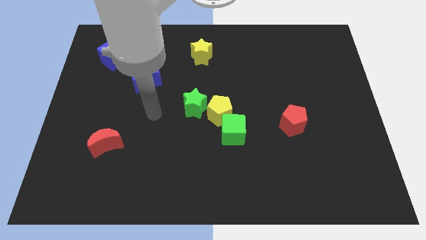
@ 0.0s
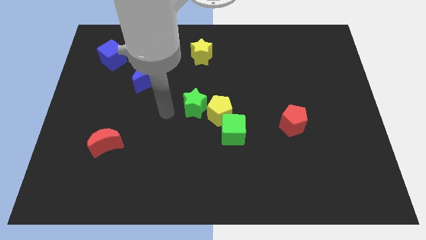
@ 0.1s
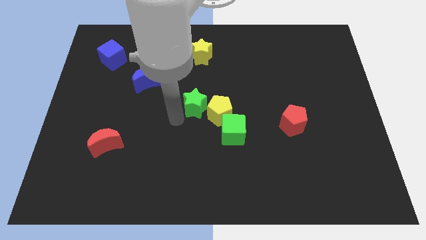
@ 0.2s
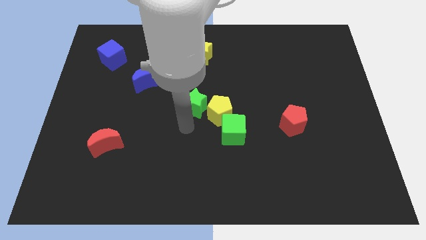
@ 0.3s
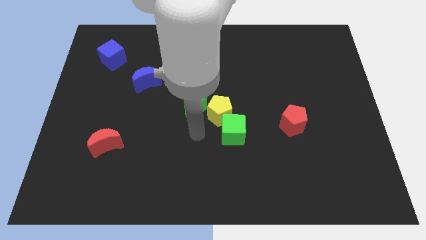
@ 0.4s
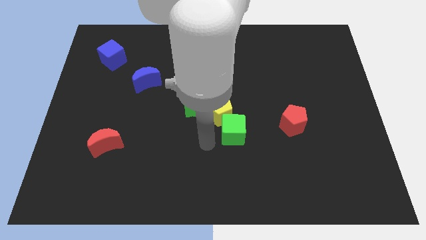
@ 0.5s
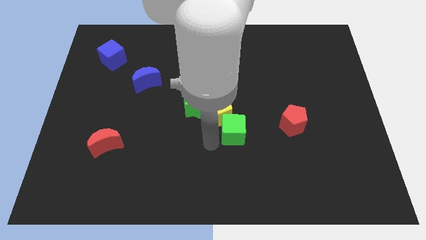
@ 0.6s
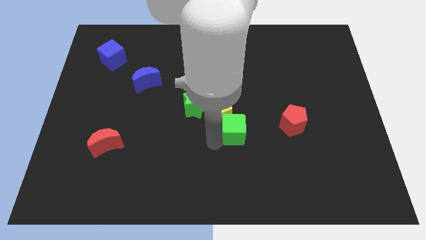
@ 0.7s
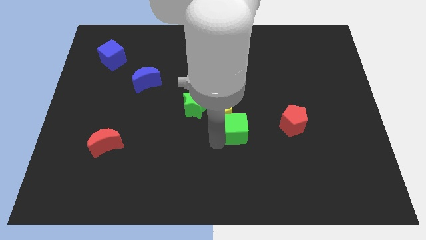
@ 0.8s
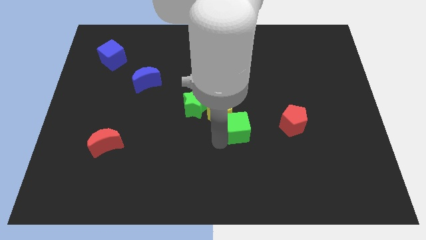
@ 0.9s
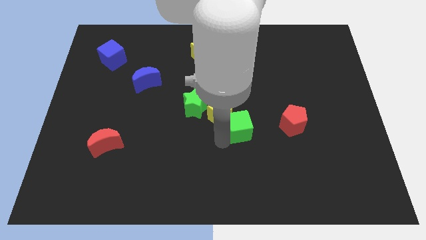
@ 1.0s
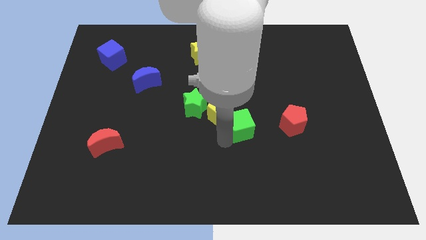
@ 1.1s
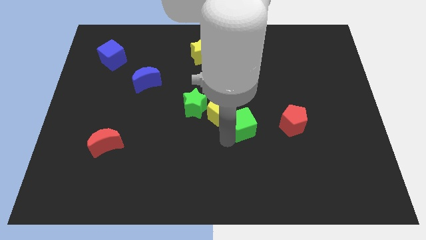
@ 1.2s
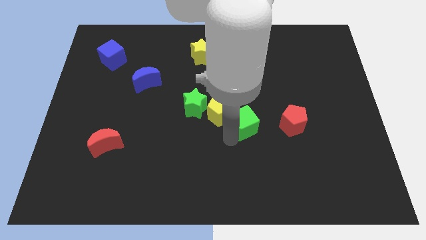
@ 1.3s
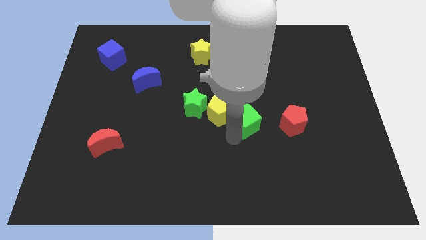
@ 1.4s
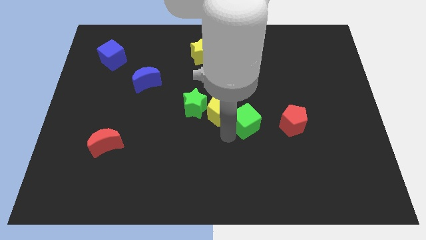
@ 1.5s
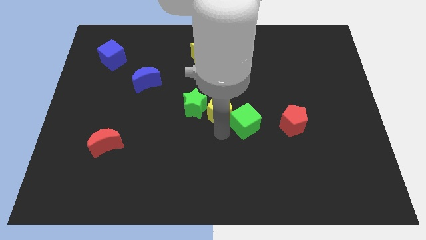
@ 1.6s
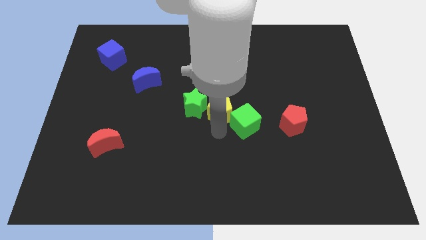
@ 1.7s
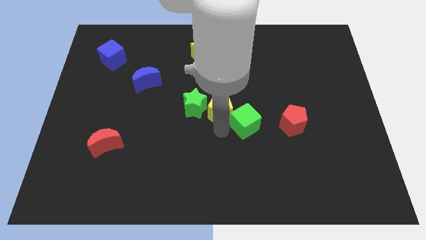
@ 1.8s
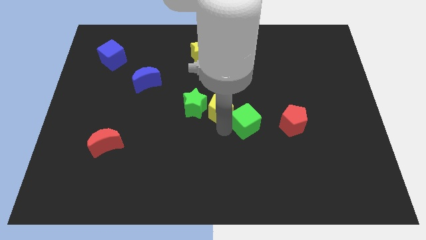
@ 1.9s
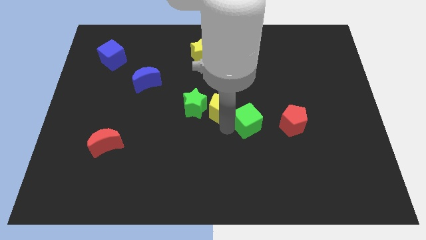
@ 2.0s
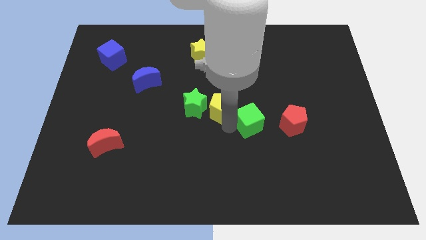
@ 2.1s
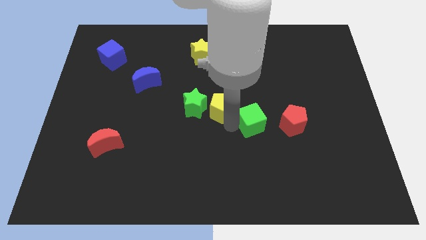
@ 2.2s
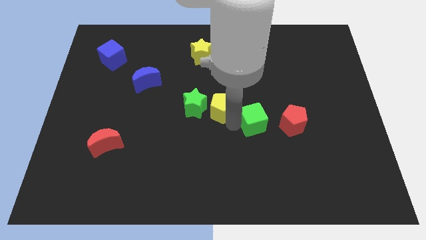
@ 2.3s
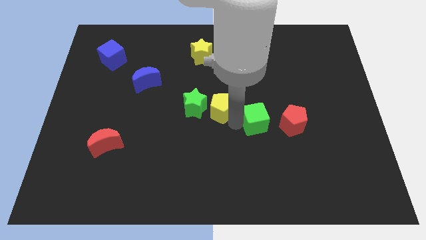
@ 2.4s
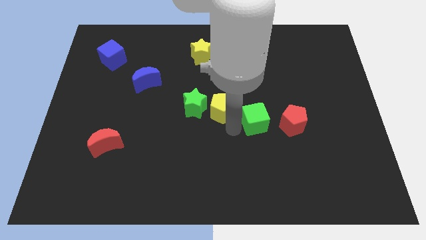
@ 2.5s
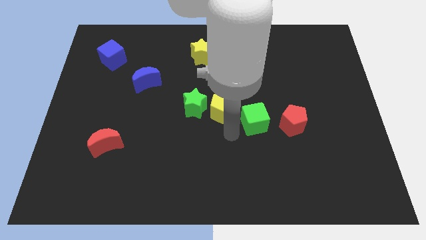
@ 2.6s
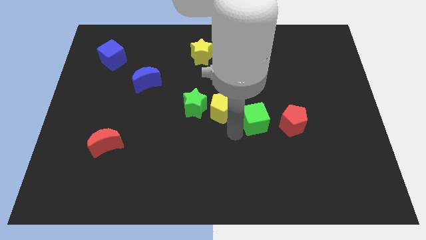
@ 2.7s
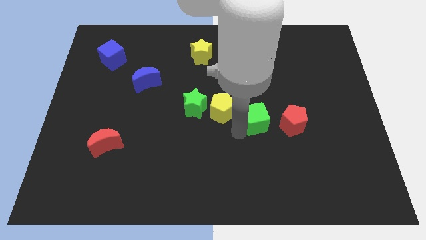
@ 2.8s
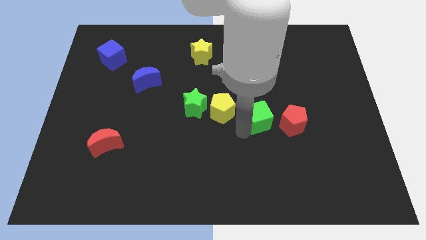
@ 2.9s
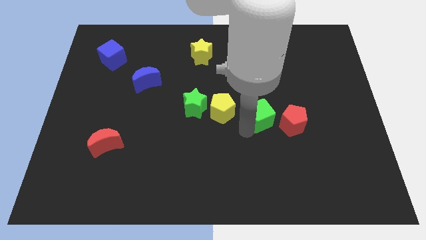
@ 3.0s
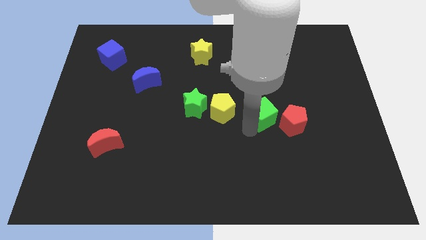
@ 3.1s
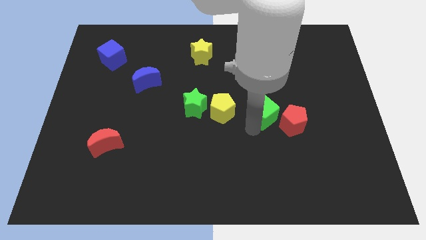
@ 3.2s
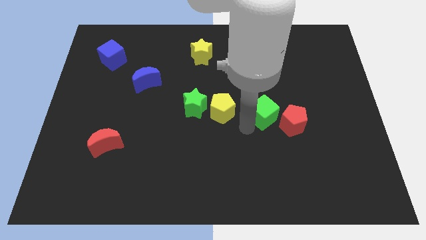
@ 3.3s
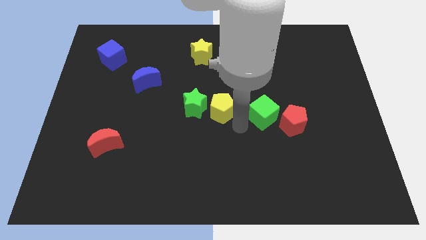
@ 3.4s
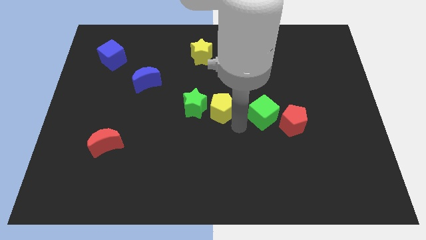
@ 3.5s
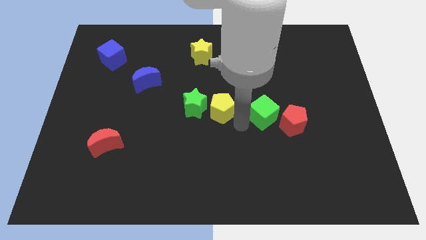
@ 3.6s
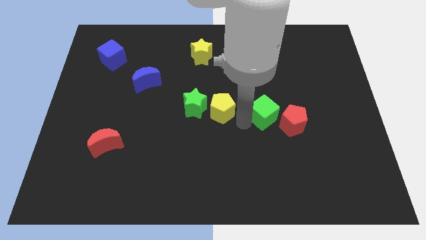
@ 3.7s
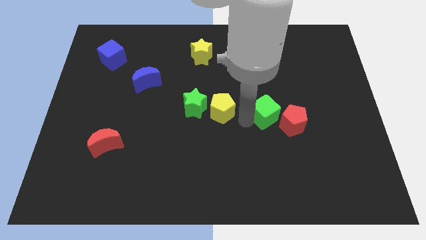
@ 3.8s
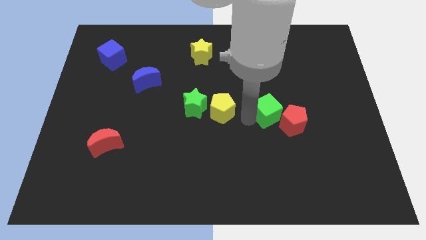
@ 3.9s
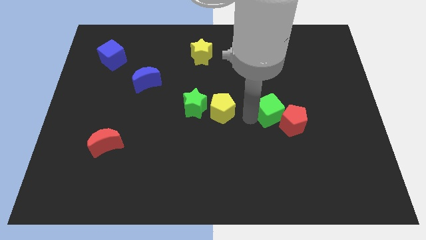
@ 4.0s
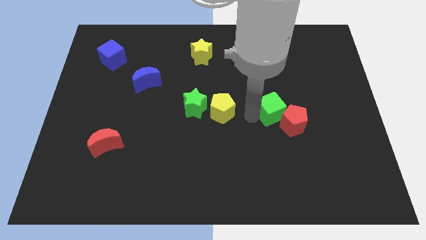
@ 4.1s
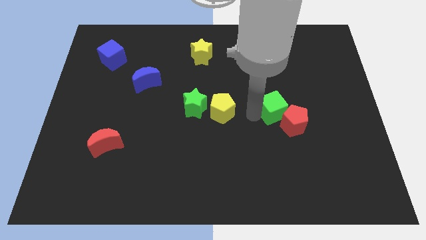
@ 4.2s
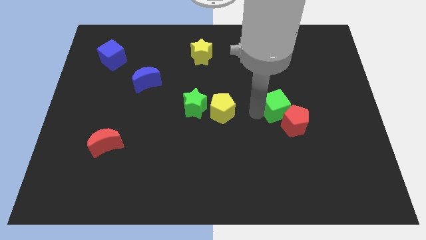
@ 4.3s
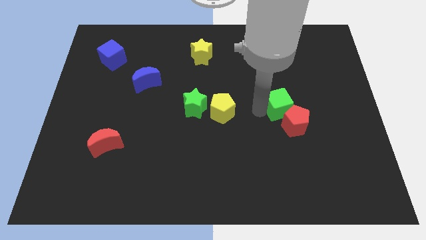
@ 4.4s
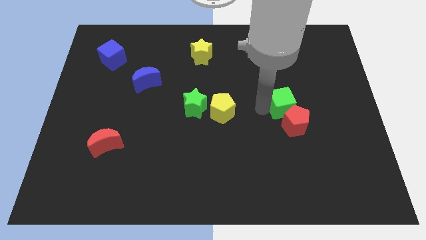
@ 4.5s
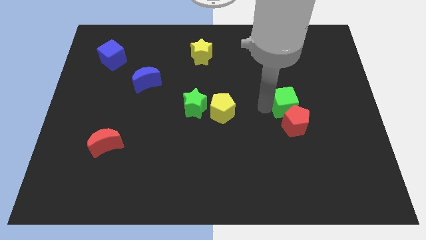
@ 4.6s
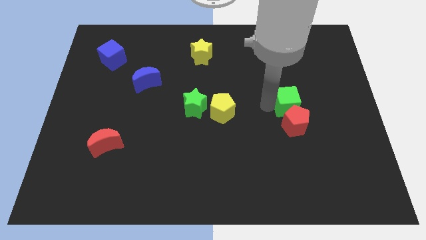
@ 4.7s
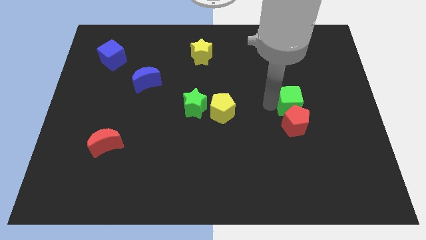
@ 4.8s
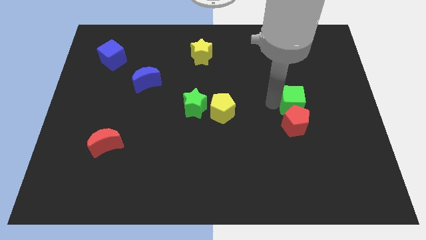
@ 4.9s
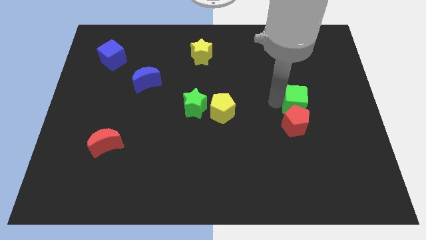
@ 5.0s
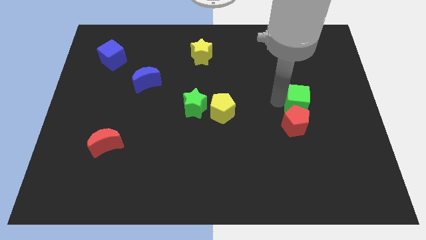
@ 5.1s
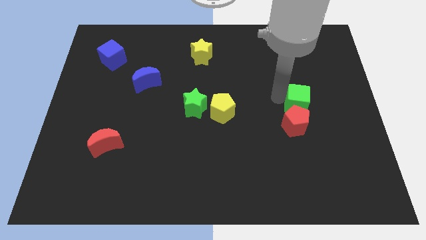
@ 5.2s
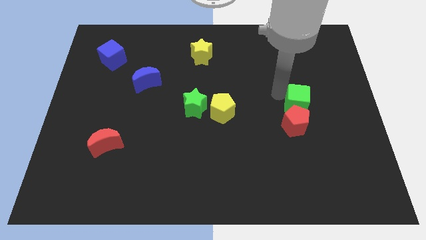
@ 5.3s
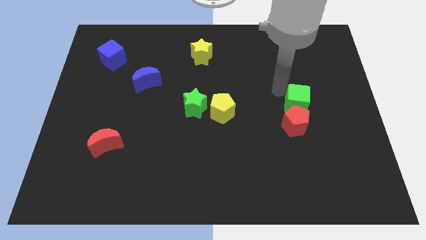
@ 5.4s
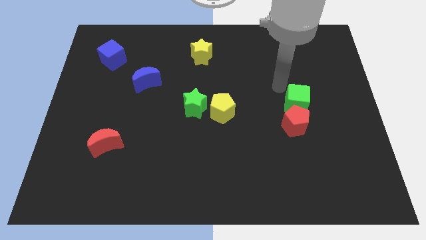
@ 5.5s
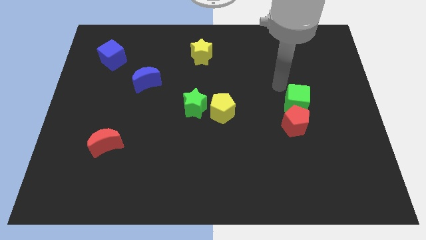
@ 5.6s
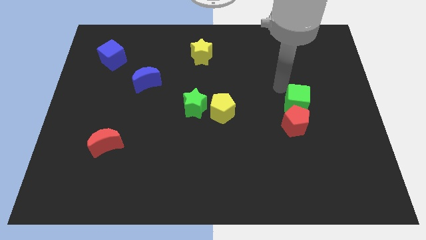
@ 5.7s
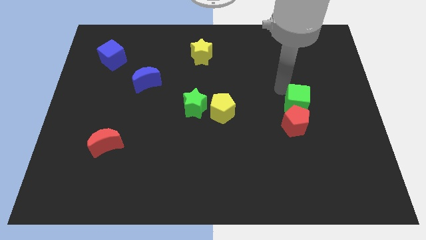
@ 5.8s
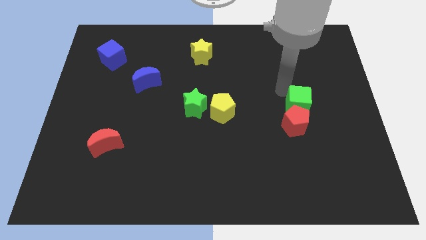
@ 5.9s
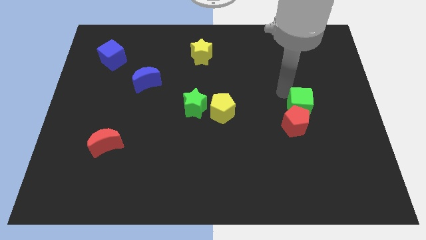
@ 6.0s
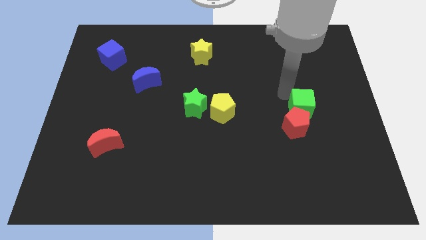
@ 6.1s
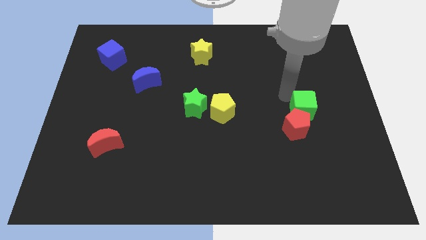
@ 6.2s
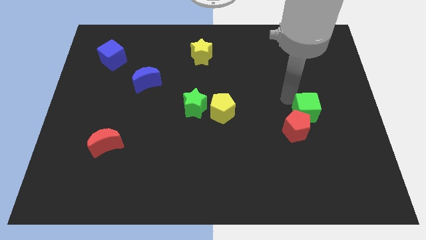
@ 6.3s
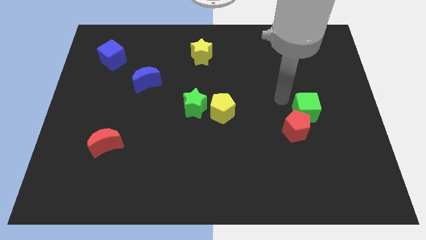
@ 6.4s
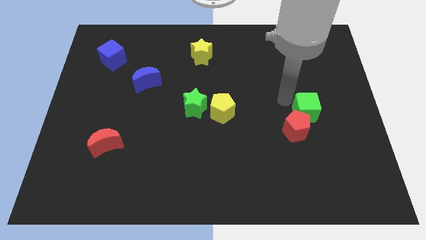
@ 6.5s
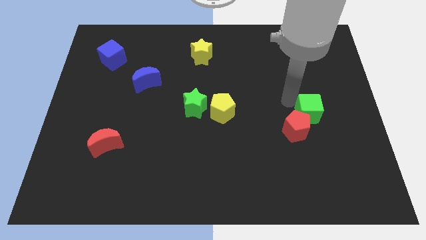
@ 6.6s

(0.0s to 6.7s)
push the green cube to the right of the red pentagon
